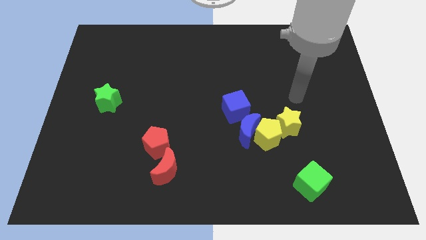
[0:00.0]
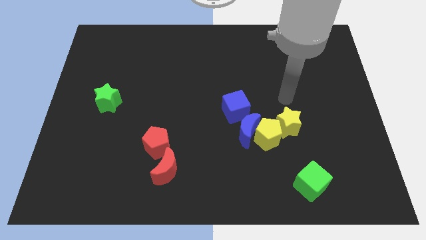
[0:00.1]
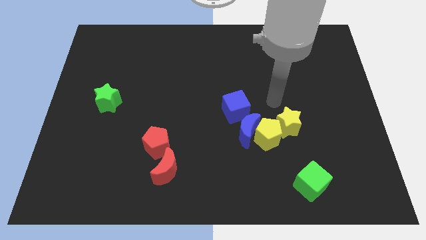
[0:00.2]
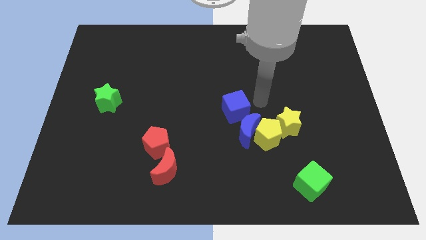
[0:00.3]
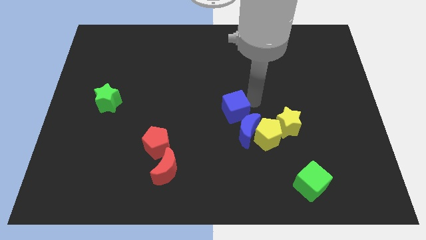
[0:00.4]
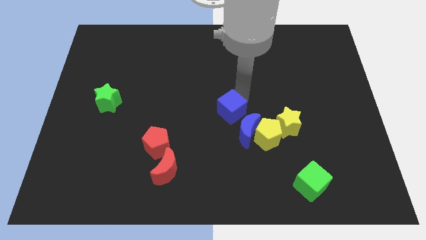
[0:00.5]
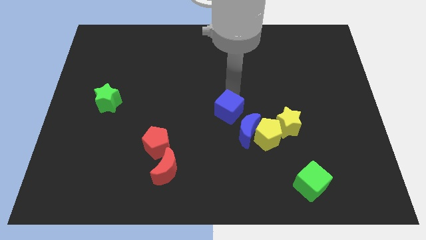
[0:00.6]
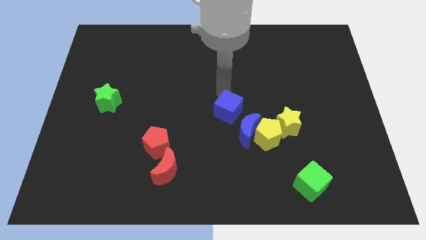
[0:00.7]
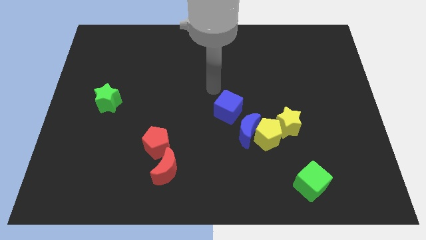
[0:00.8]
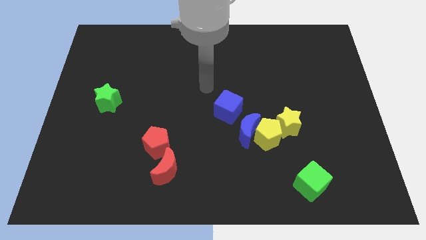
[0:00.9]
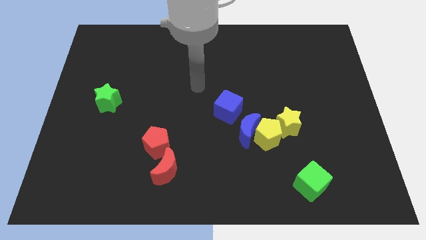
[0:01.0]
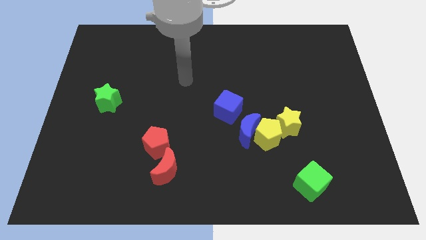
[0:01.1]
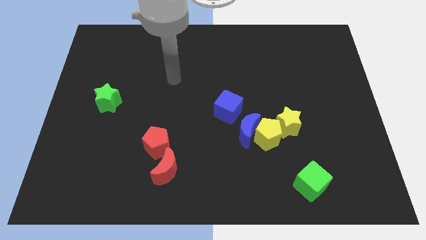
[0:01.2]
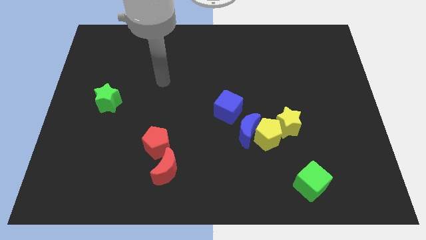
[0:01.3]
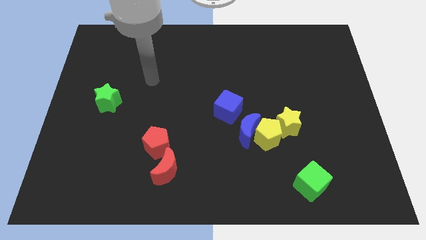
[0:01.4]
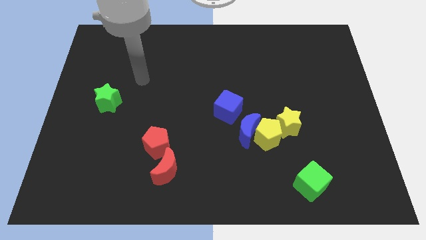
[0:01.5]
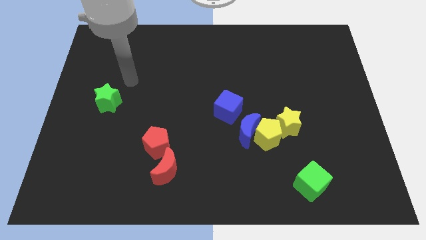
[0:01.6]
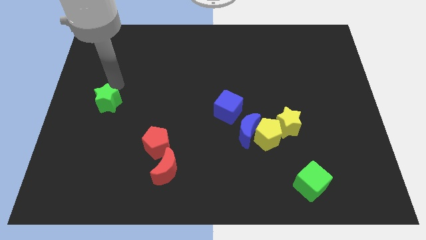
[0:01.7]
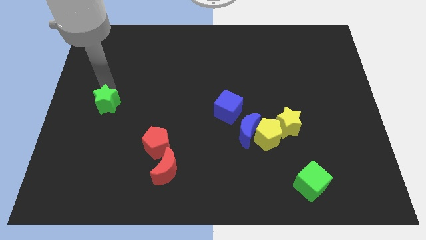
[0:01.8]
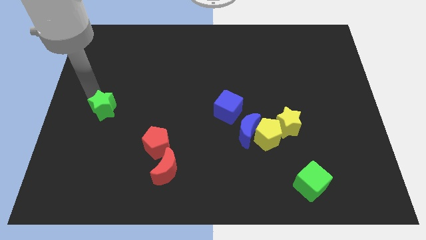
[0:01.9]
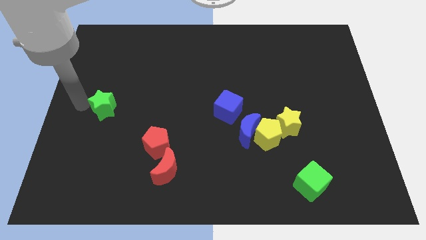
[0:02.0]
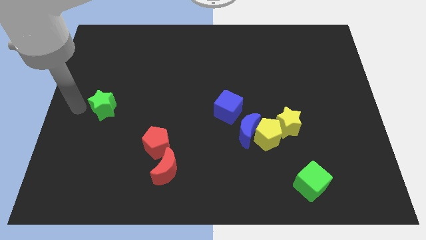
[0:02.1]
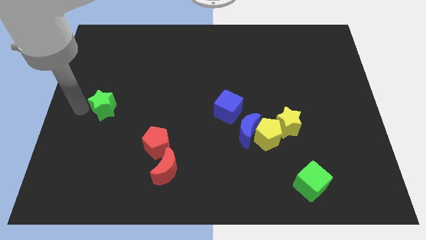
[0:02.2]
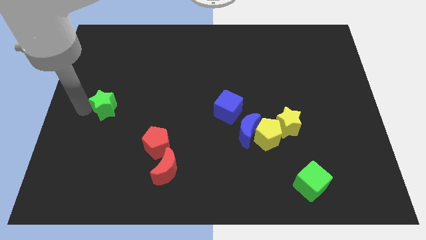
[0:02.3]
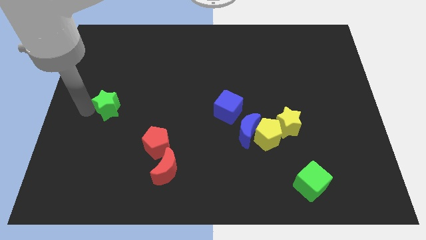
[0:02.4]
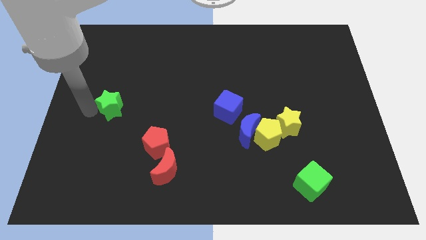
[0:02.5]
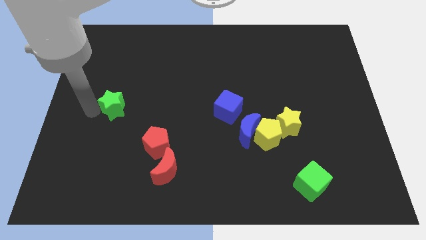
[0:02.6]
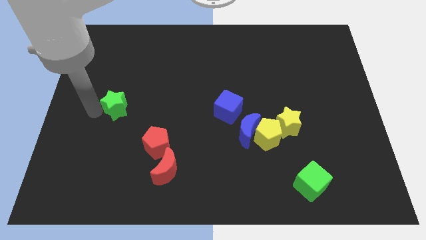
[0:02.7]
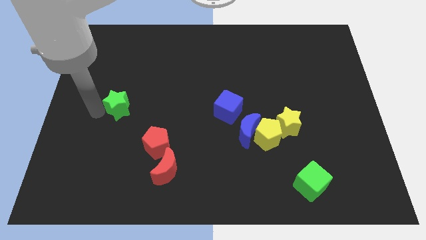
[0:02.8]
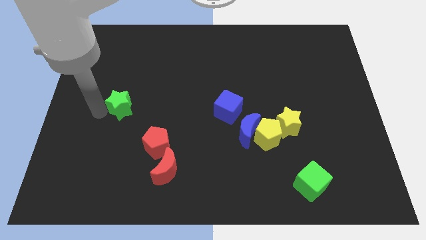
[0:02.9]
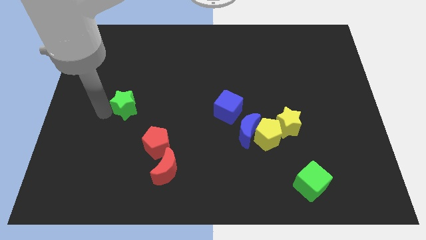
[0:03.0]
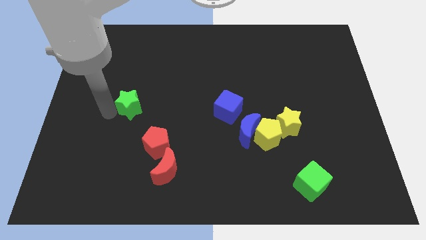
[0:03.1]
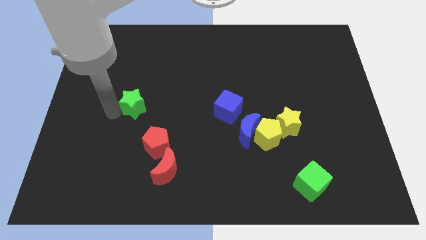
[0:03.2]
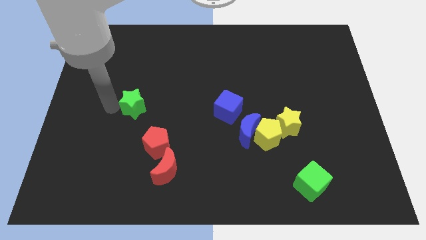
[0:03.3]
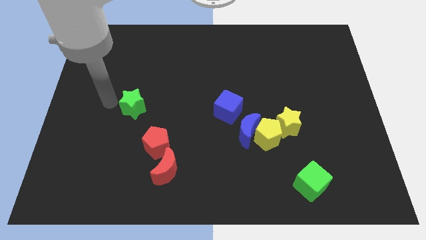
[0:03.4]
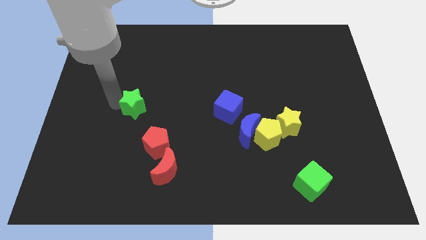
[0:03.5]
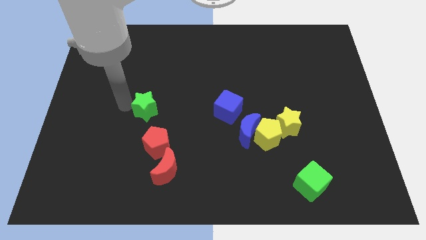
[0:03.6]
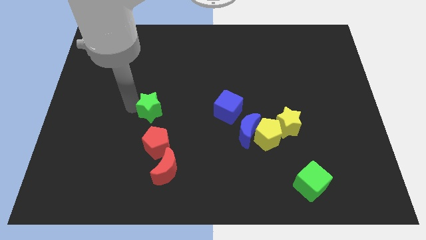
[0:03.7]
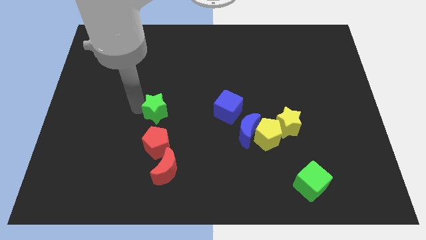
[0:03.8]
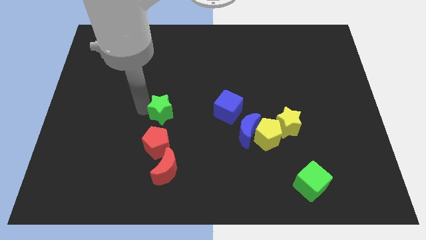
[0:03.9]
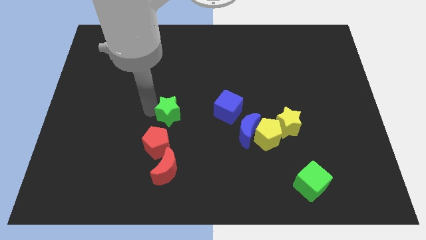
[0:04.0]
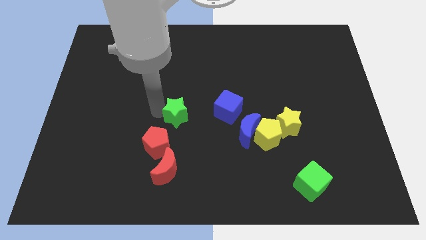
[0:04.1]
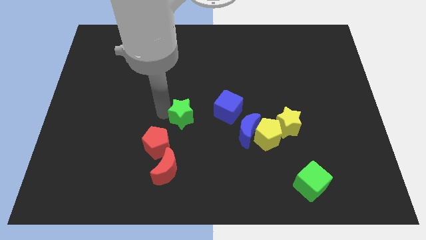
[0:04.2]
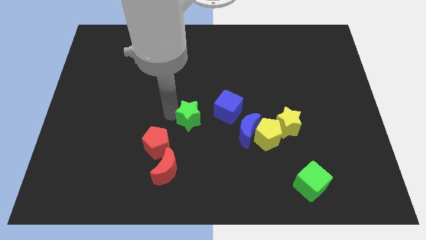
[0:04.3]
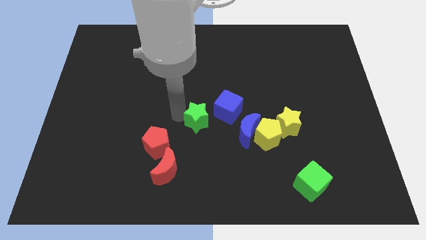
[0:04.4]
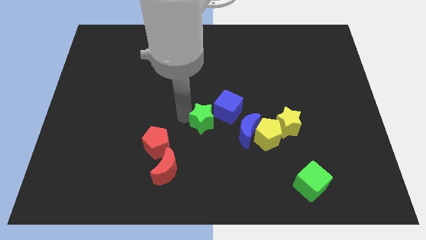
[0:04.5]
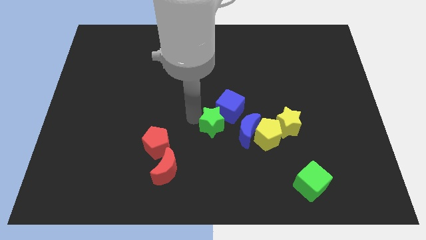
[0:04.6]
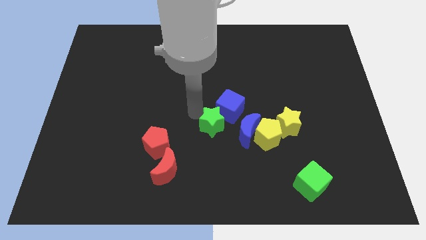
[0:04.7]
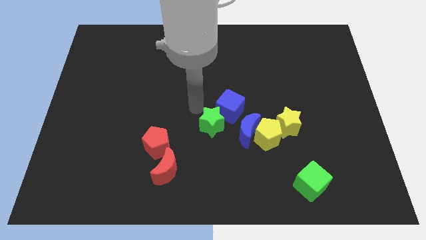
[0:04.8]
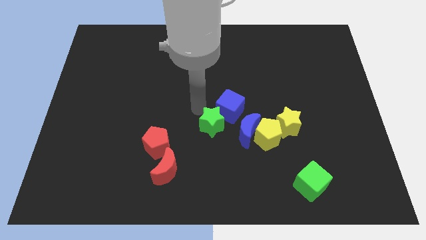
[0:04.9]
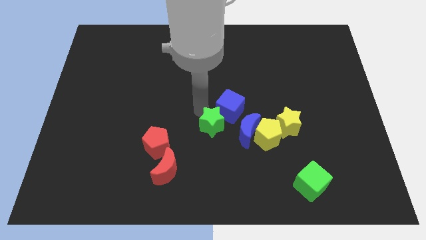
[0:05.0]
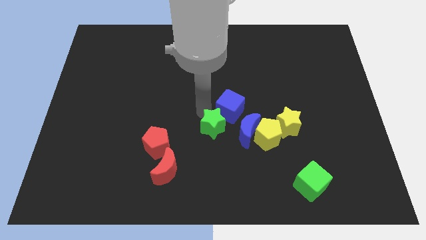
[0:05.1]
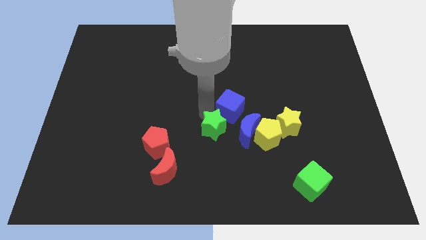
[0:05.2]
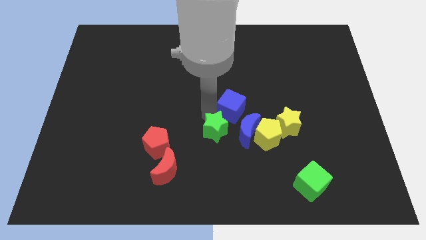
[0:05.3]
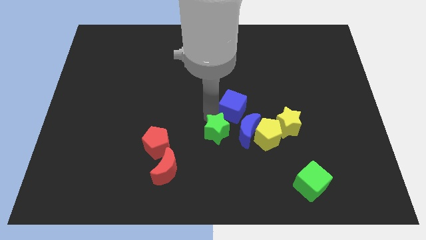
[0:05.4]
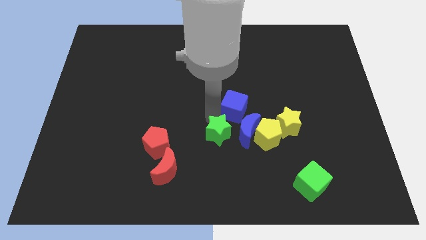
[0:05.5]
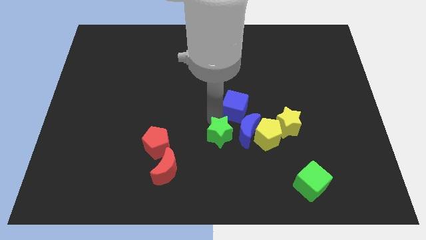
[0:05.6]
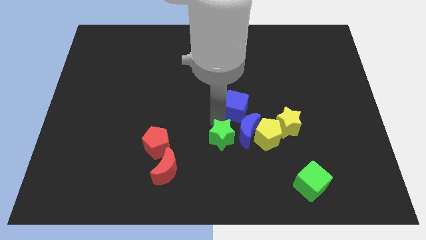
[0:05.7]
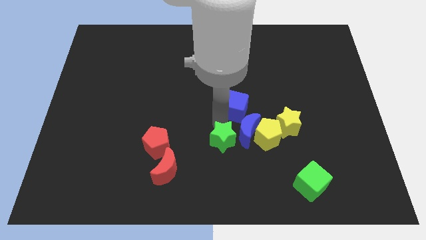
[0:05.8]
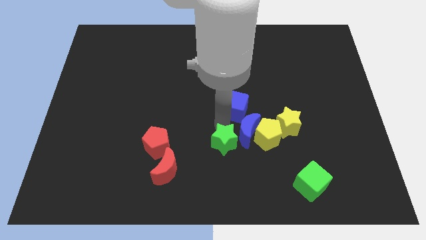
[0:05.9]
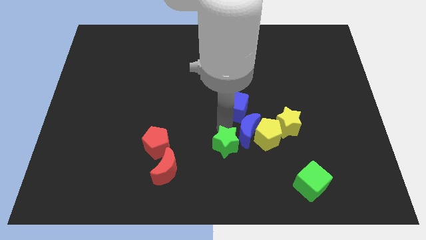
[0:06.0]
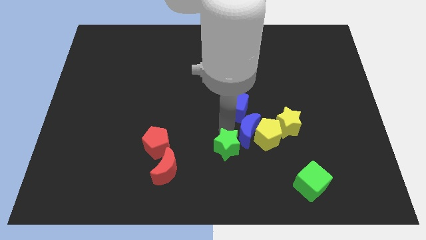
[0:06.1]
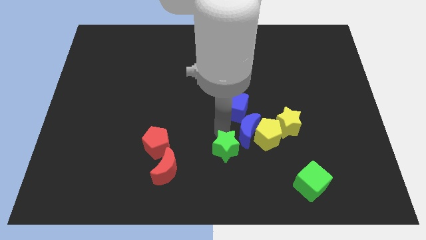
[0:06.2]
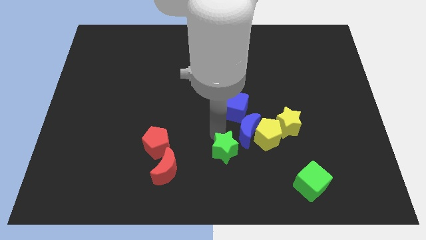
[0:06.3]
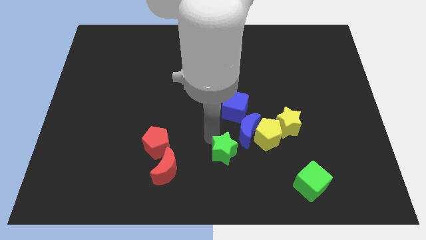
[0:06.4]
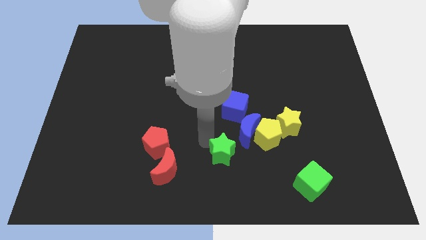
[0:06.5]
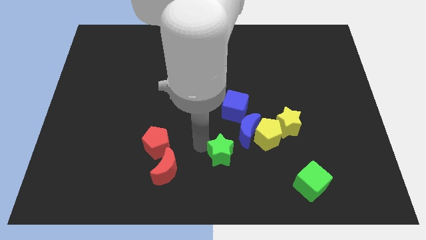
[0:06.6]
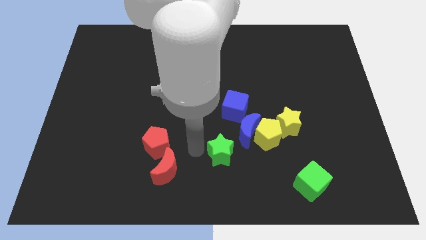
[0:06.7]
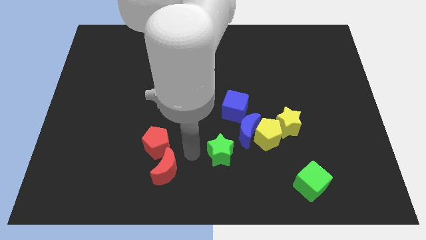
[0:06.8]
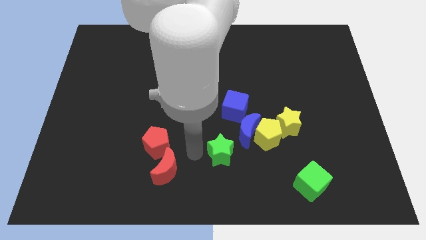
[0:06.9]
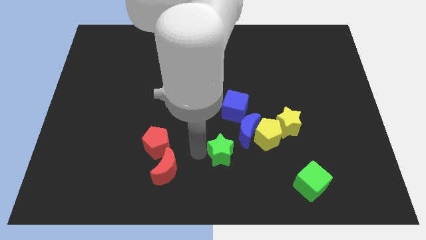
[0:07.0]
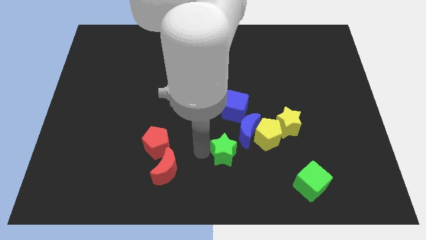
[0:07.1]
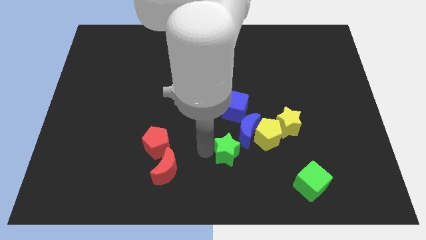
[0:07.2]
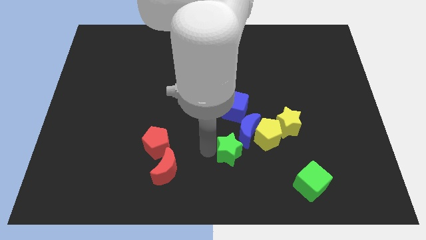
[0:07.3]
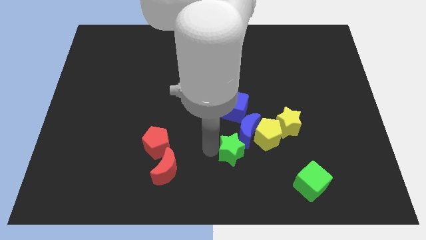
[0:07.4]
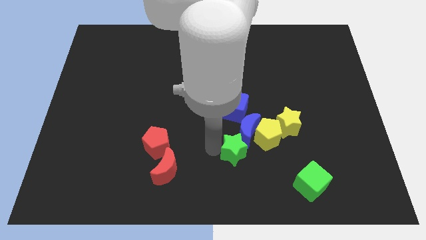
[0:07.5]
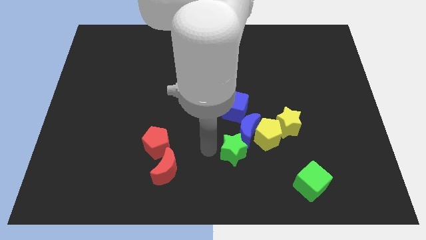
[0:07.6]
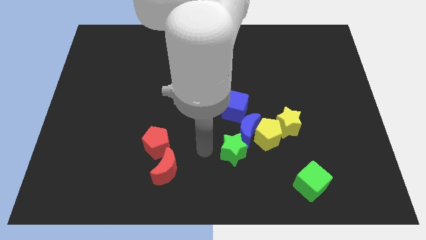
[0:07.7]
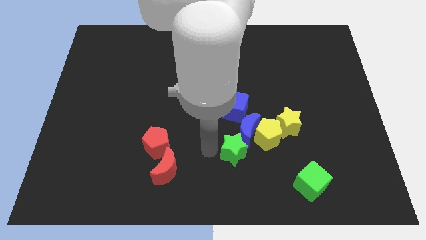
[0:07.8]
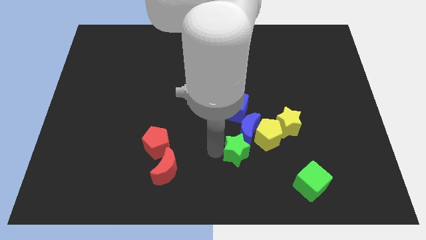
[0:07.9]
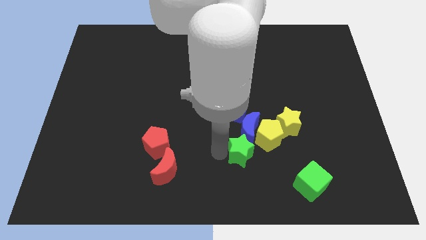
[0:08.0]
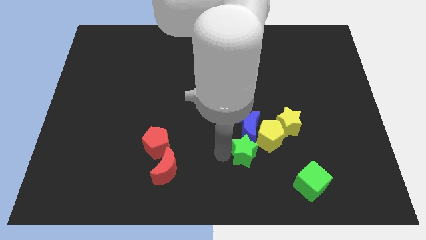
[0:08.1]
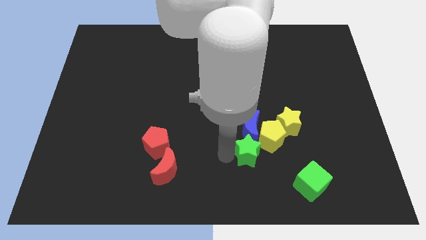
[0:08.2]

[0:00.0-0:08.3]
put the green star close to the yellow pentagon
